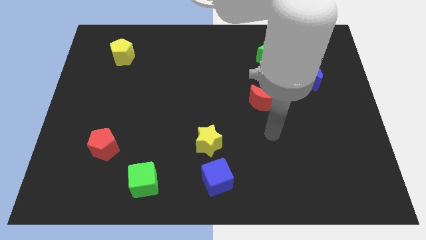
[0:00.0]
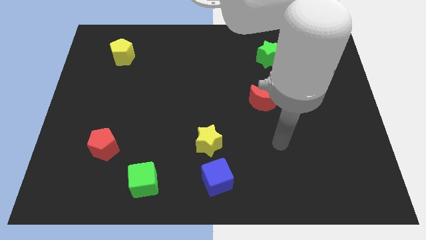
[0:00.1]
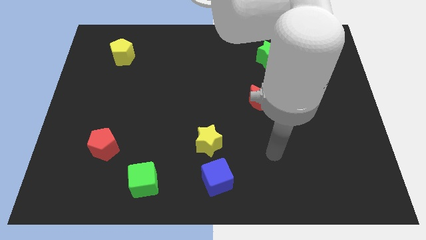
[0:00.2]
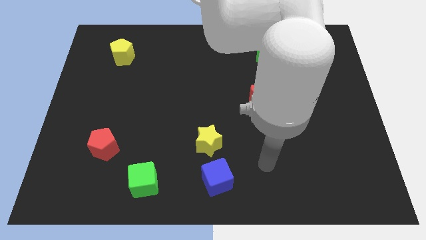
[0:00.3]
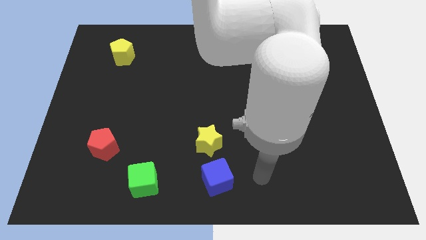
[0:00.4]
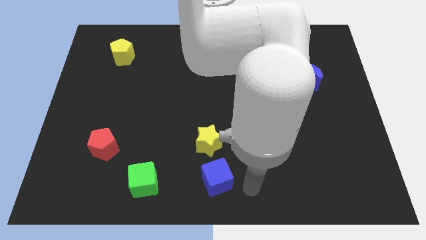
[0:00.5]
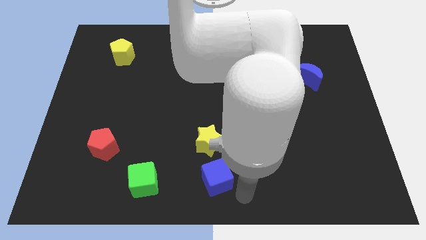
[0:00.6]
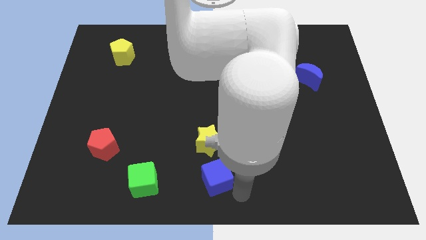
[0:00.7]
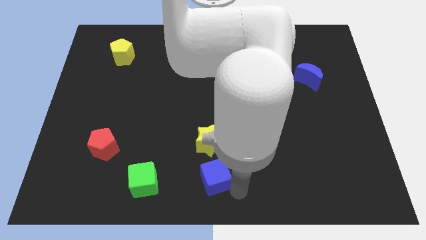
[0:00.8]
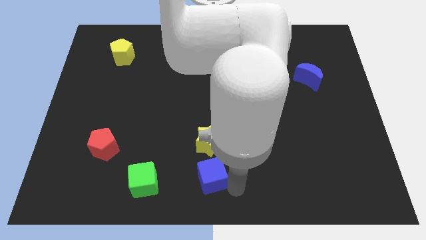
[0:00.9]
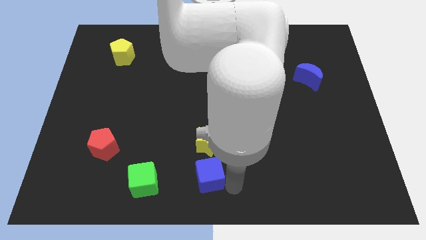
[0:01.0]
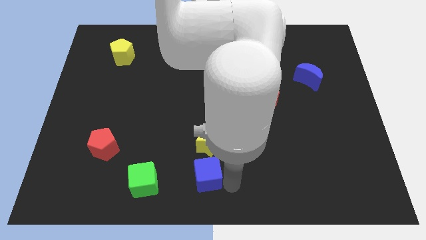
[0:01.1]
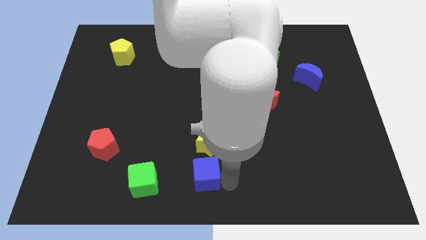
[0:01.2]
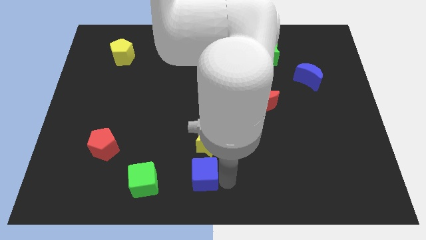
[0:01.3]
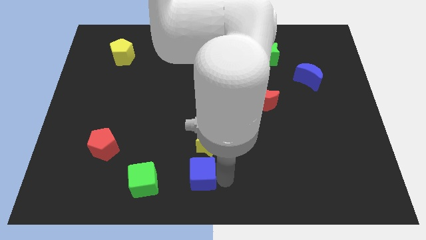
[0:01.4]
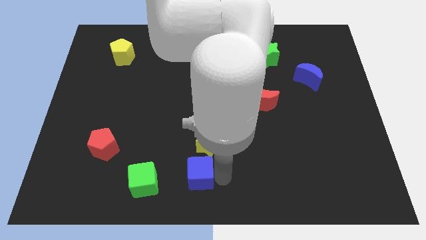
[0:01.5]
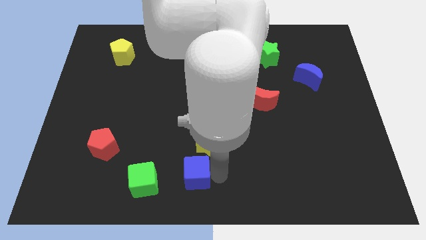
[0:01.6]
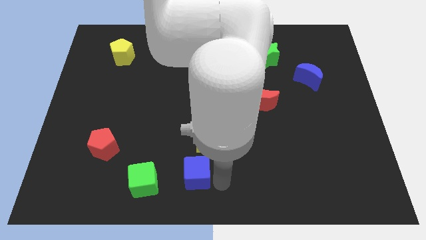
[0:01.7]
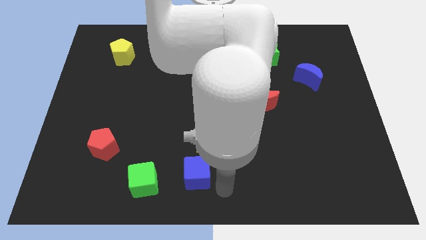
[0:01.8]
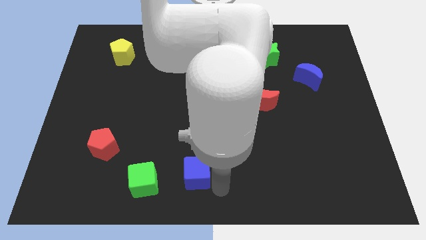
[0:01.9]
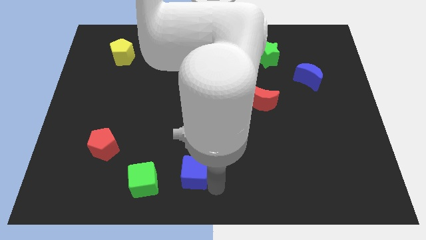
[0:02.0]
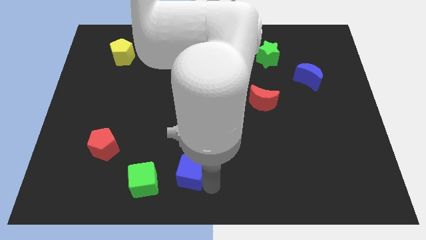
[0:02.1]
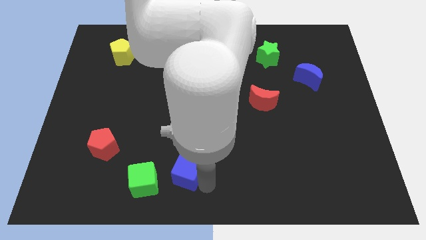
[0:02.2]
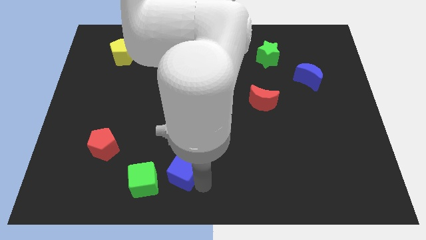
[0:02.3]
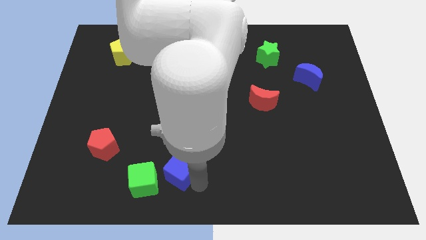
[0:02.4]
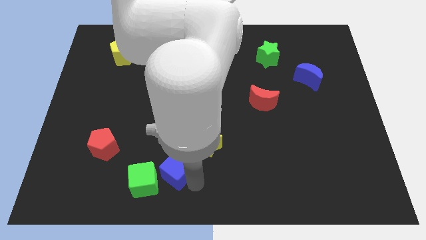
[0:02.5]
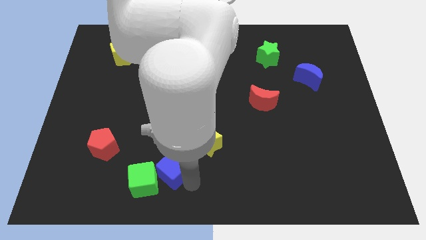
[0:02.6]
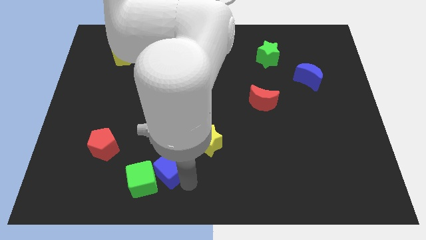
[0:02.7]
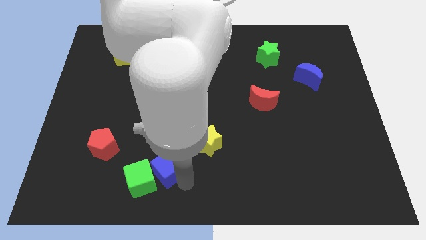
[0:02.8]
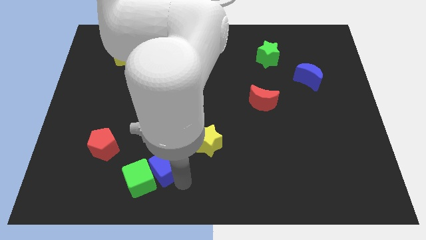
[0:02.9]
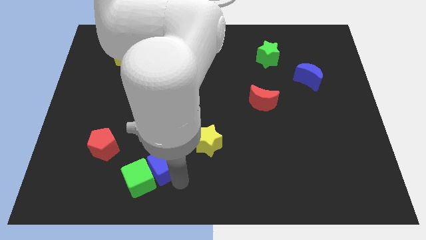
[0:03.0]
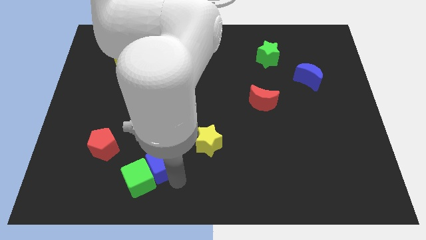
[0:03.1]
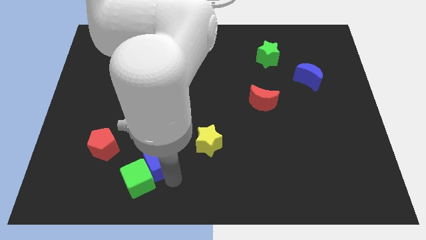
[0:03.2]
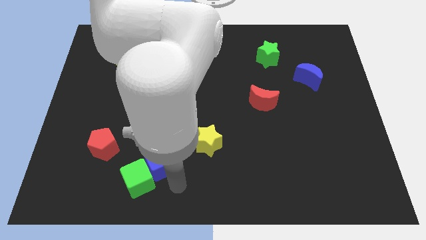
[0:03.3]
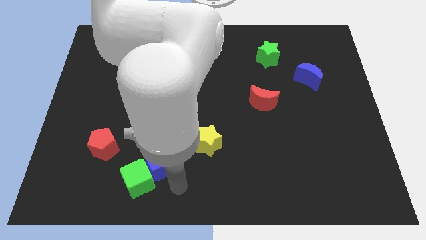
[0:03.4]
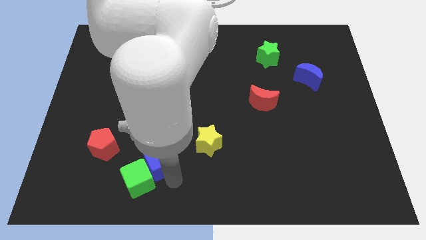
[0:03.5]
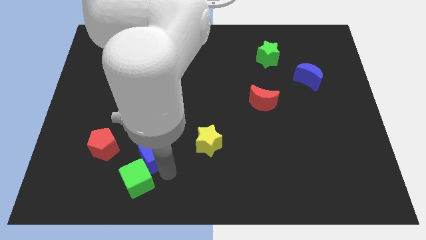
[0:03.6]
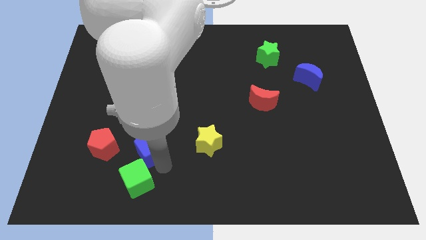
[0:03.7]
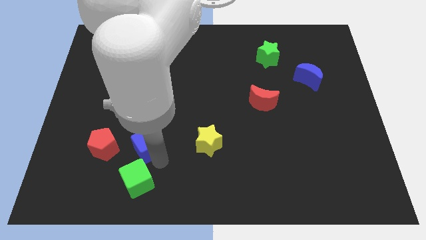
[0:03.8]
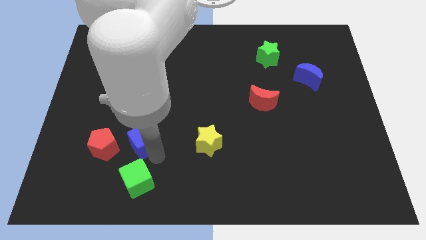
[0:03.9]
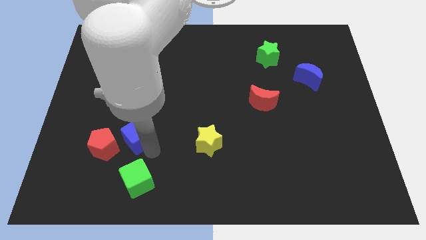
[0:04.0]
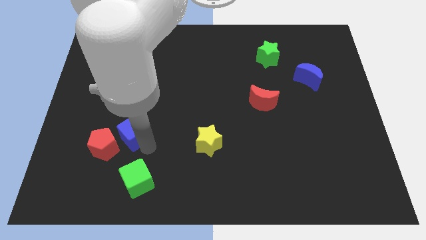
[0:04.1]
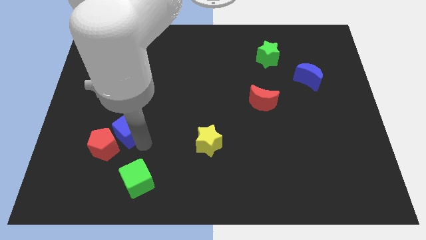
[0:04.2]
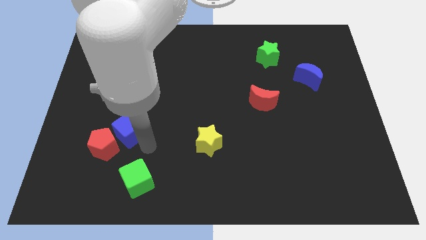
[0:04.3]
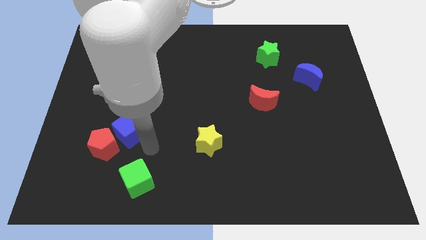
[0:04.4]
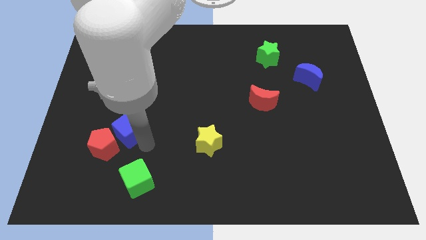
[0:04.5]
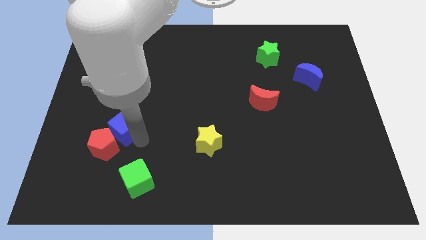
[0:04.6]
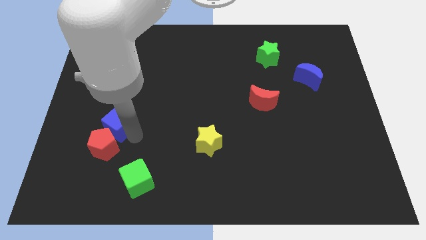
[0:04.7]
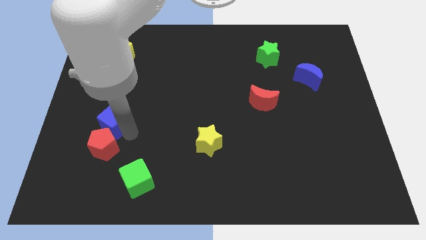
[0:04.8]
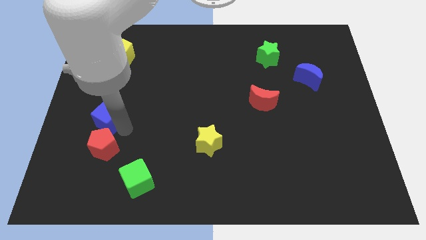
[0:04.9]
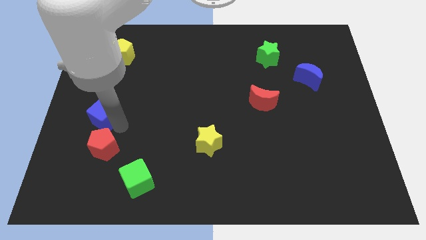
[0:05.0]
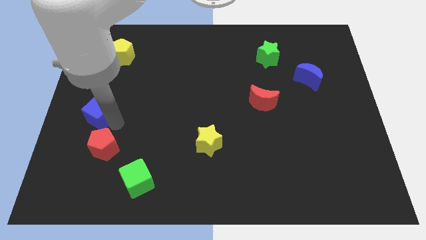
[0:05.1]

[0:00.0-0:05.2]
slide the blue cube to the center left

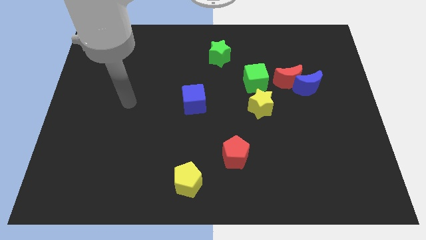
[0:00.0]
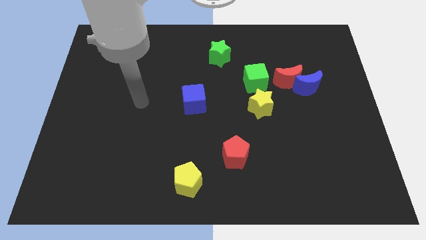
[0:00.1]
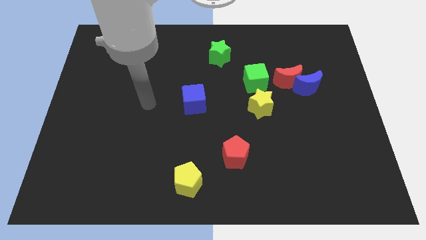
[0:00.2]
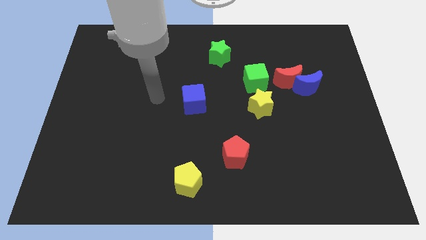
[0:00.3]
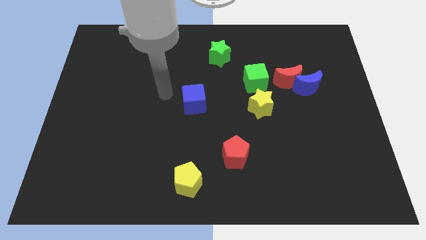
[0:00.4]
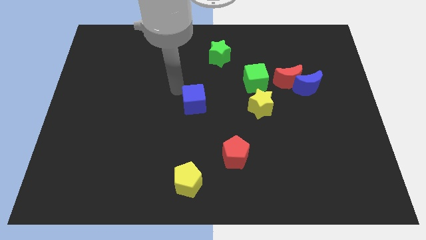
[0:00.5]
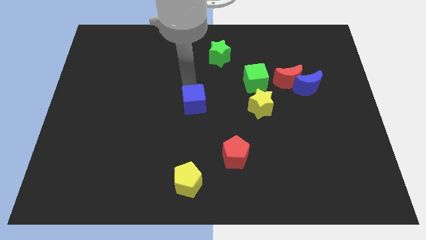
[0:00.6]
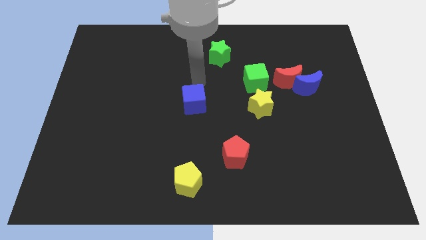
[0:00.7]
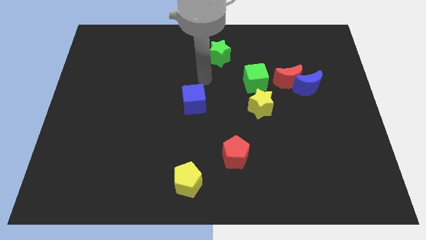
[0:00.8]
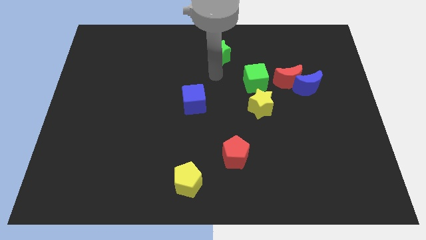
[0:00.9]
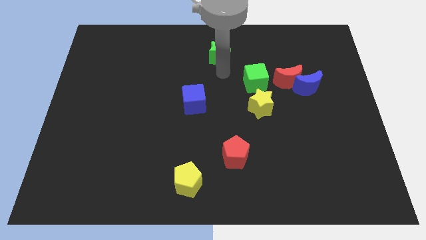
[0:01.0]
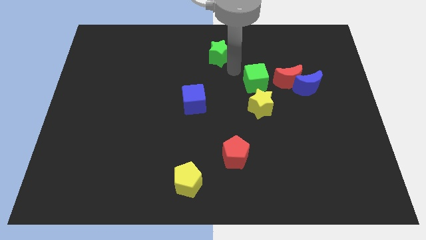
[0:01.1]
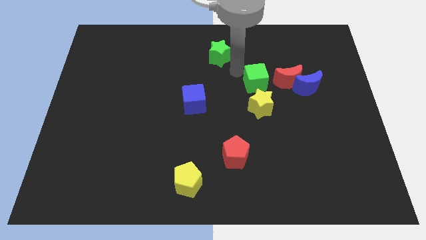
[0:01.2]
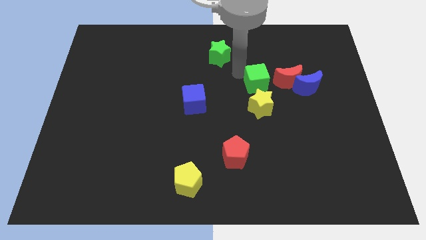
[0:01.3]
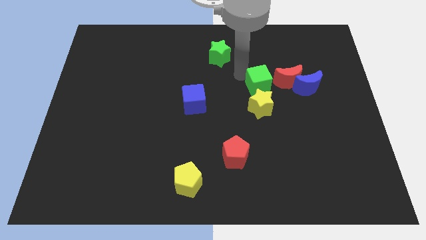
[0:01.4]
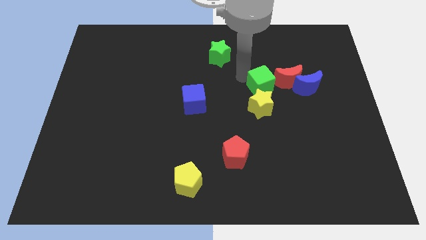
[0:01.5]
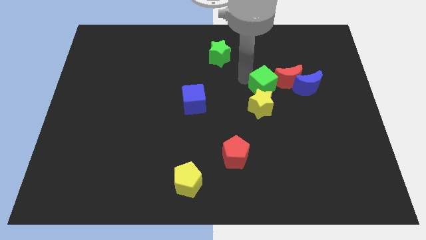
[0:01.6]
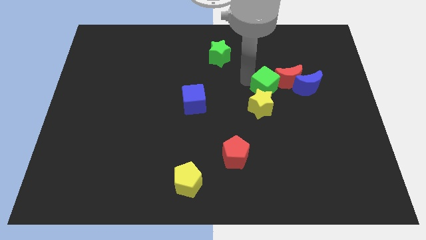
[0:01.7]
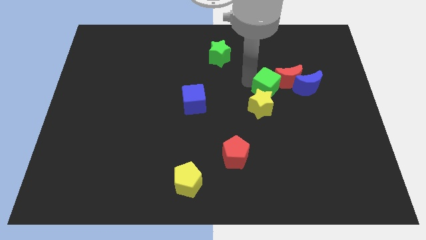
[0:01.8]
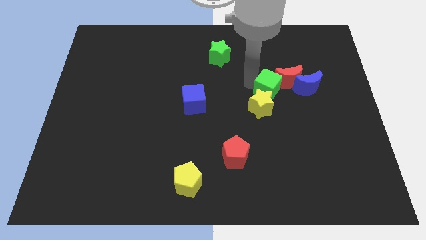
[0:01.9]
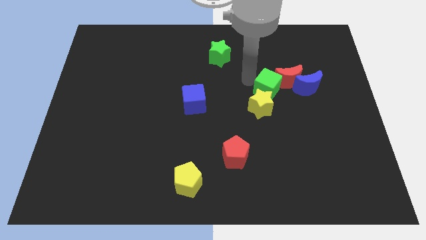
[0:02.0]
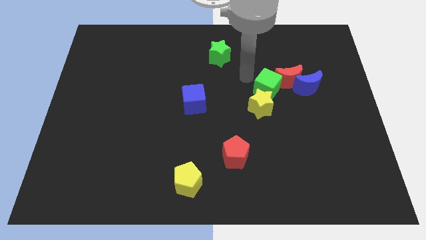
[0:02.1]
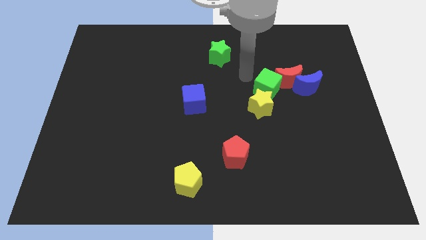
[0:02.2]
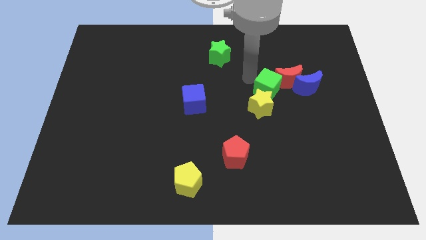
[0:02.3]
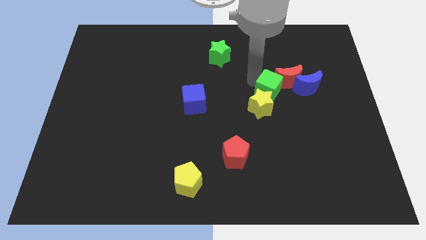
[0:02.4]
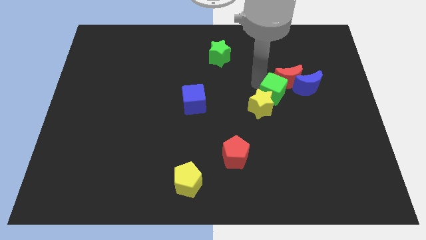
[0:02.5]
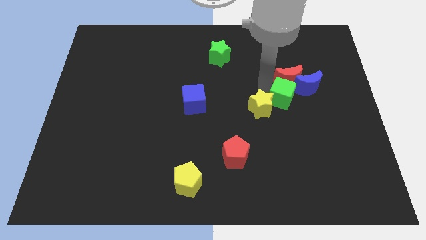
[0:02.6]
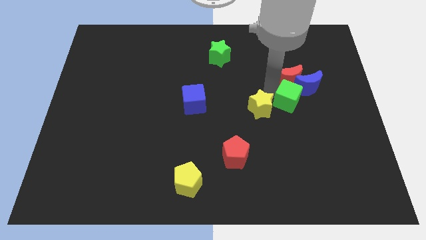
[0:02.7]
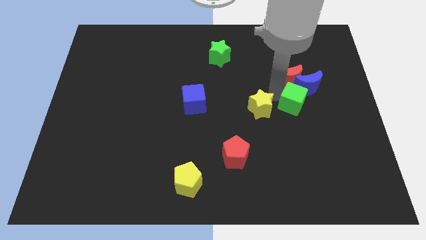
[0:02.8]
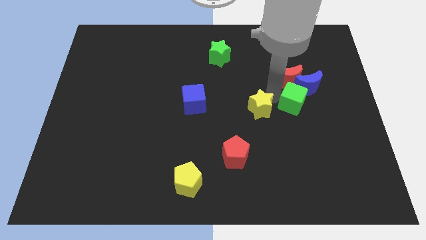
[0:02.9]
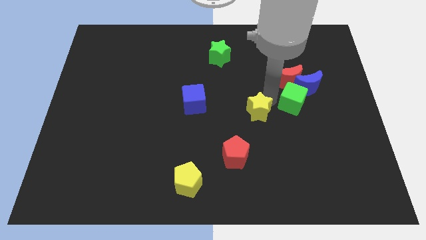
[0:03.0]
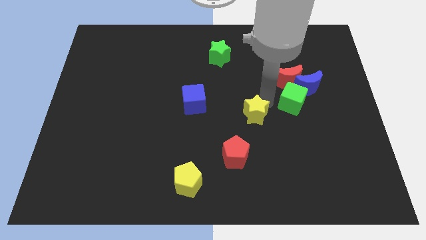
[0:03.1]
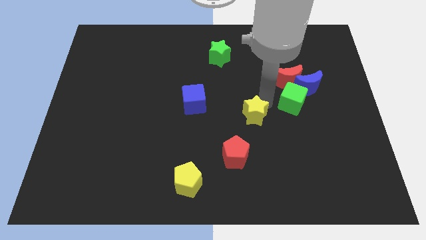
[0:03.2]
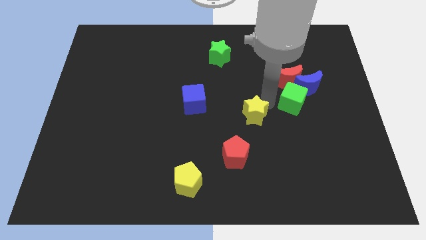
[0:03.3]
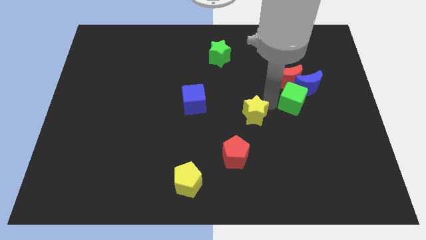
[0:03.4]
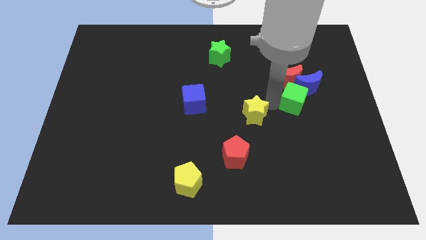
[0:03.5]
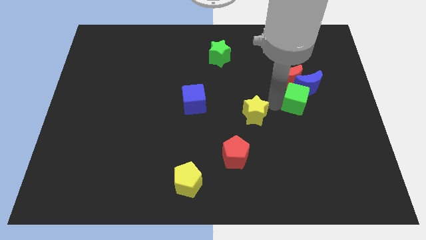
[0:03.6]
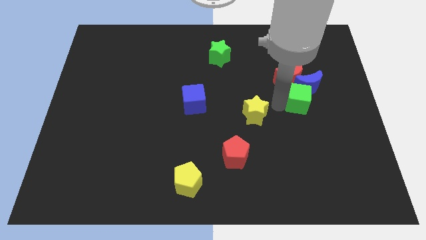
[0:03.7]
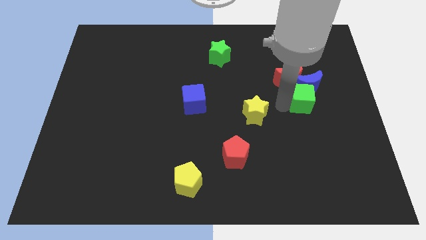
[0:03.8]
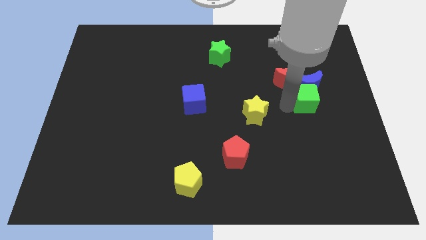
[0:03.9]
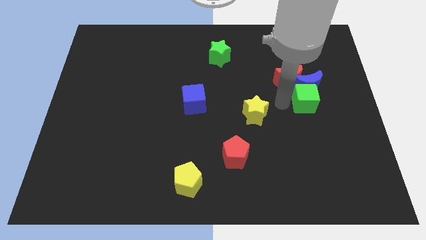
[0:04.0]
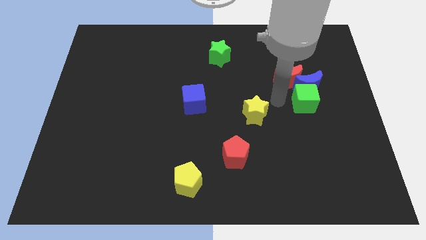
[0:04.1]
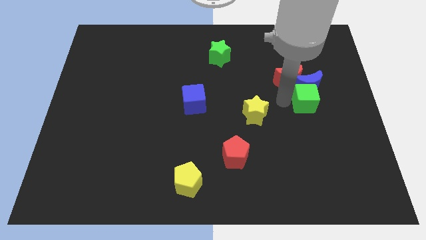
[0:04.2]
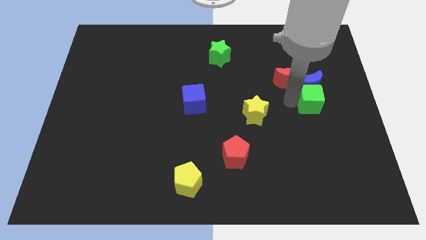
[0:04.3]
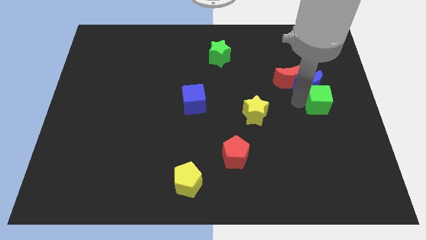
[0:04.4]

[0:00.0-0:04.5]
slide the green cube to the right side of the board
